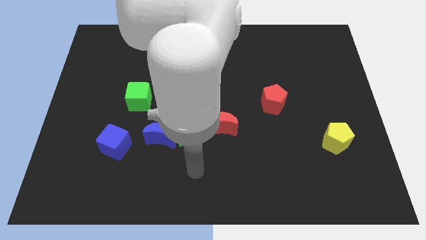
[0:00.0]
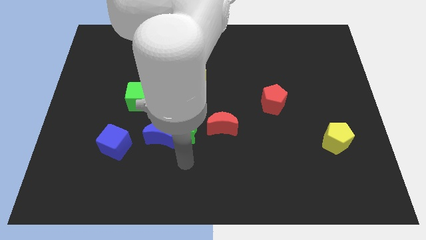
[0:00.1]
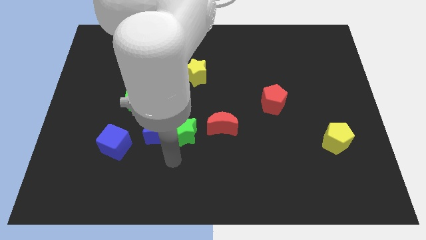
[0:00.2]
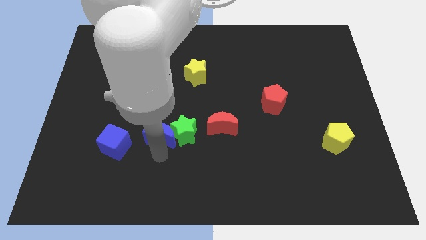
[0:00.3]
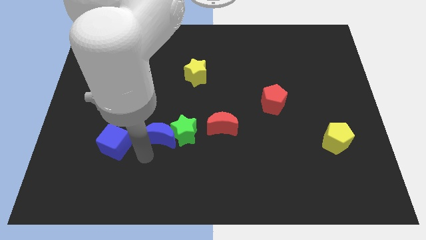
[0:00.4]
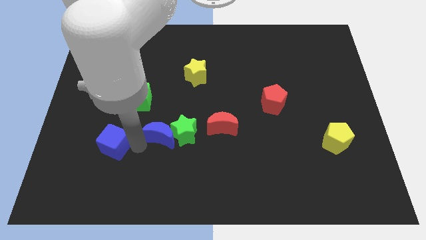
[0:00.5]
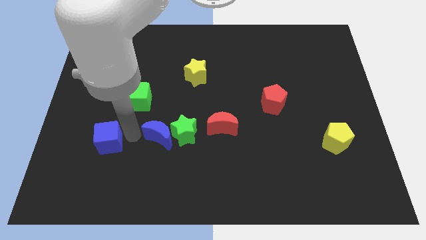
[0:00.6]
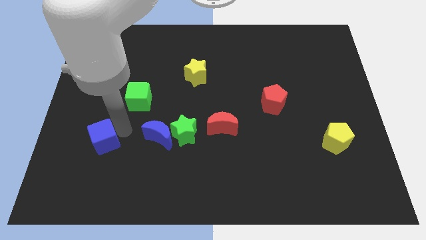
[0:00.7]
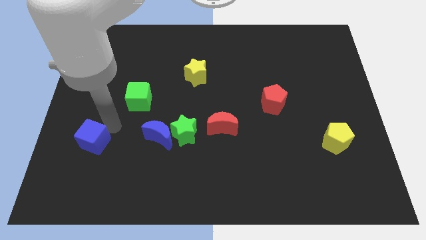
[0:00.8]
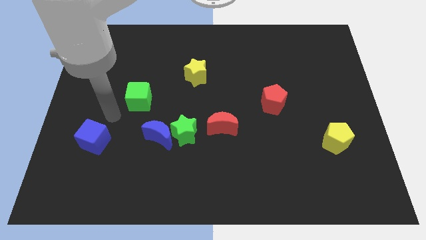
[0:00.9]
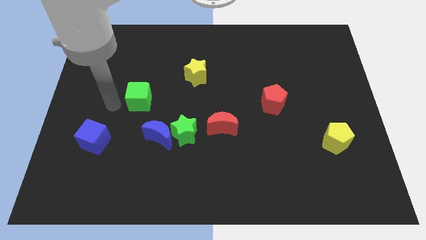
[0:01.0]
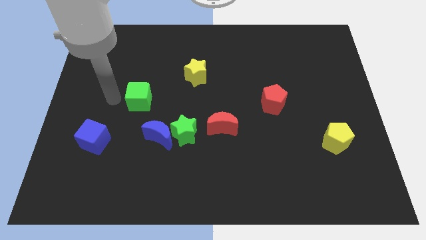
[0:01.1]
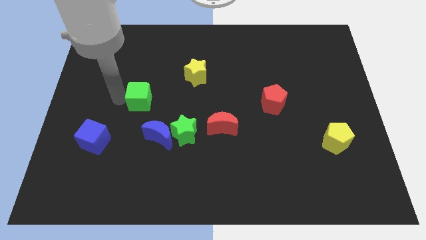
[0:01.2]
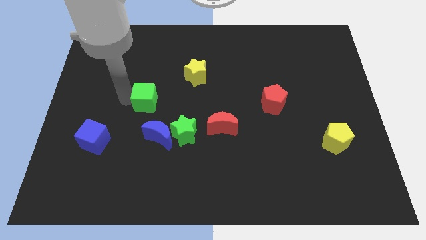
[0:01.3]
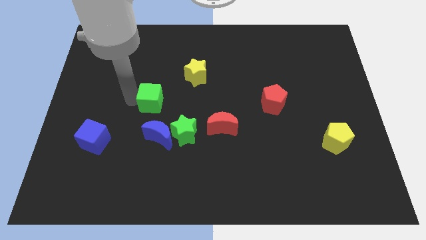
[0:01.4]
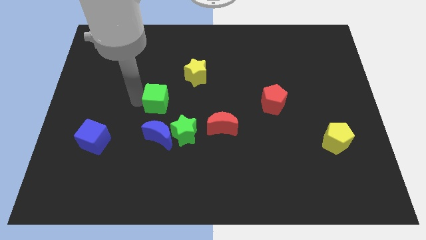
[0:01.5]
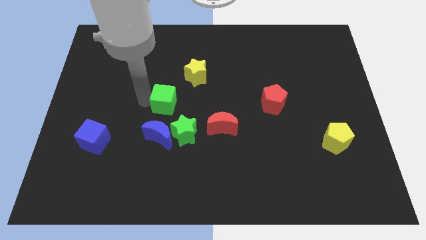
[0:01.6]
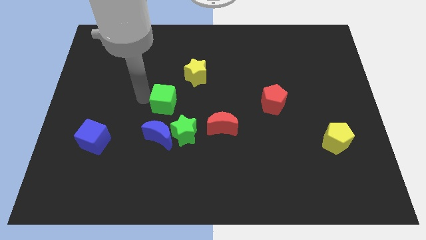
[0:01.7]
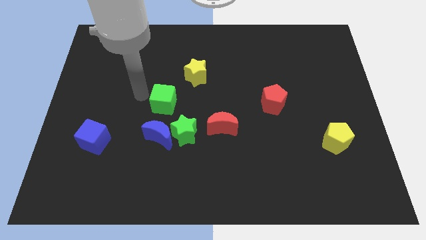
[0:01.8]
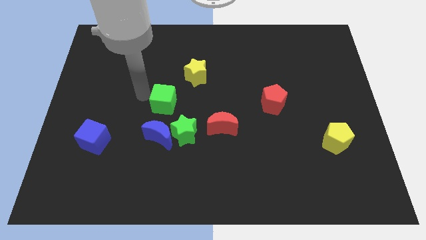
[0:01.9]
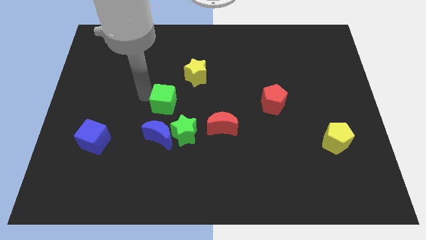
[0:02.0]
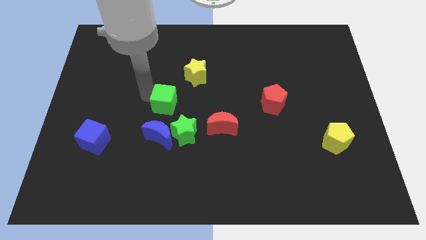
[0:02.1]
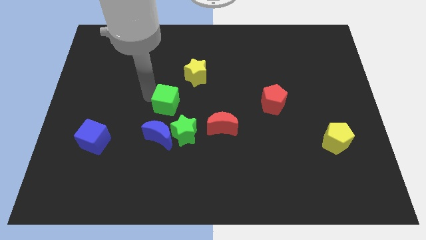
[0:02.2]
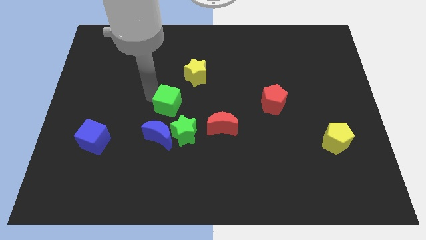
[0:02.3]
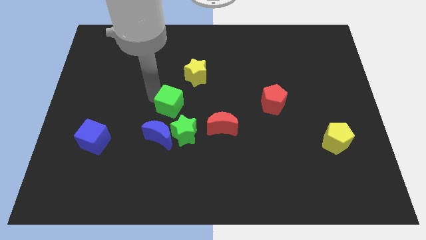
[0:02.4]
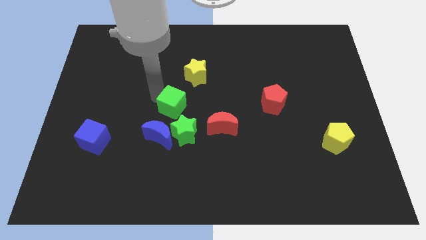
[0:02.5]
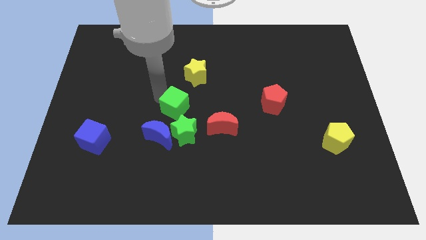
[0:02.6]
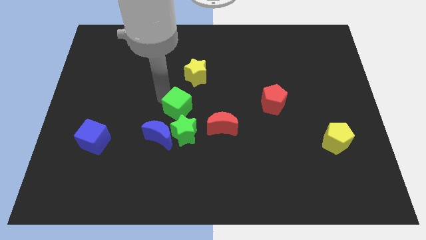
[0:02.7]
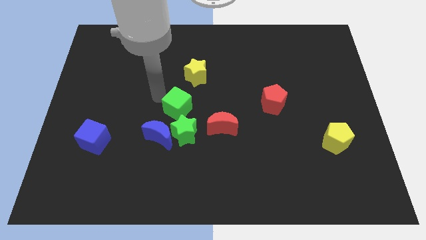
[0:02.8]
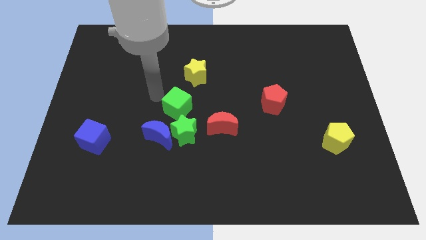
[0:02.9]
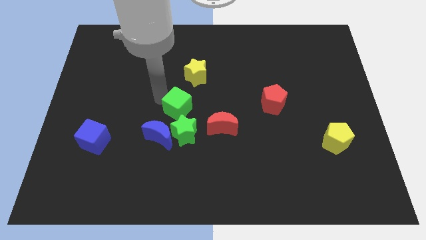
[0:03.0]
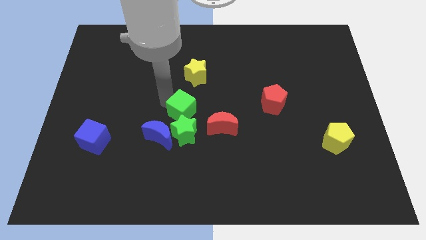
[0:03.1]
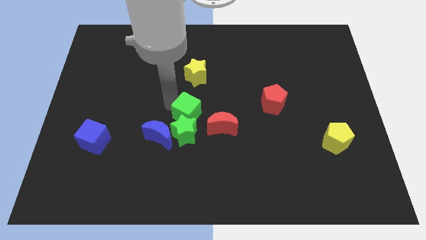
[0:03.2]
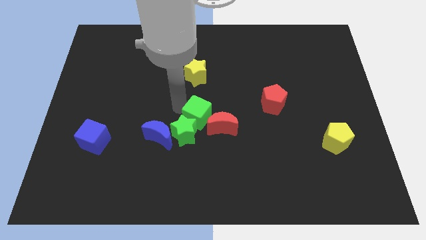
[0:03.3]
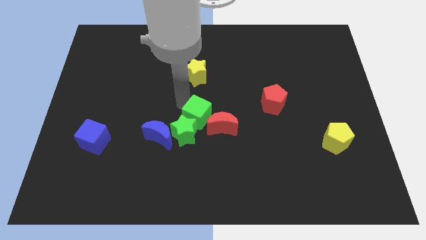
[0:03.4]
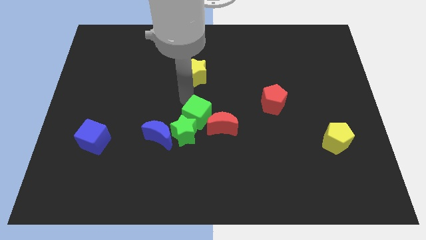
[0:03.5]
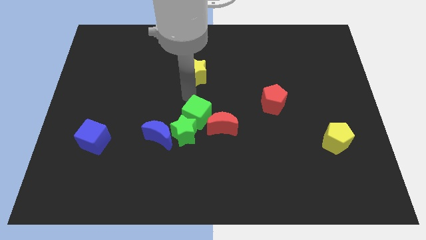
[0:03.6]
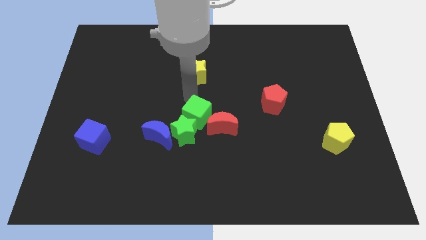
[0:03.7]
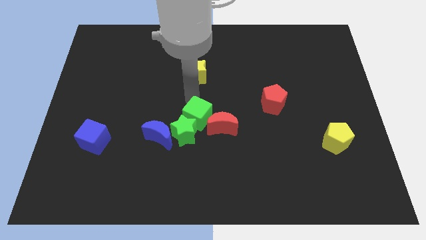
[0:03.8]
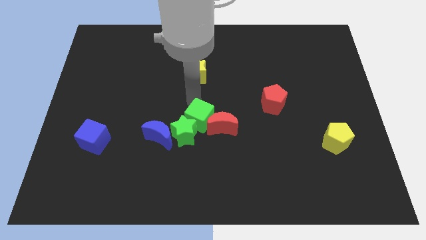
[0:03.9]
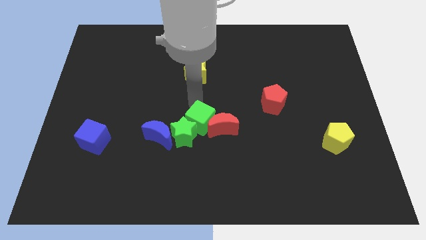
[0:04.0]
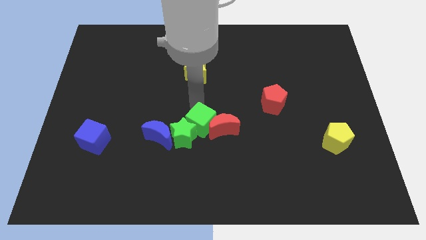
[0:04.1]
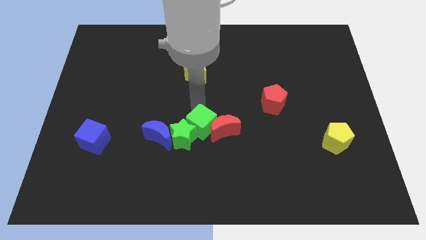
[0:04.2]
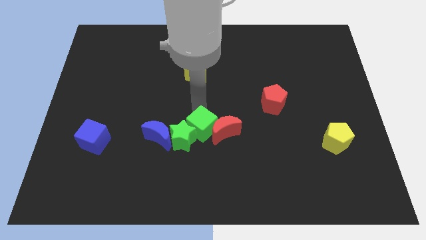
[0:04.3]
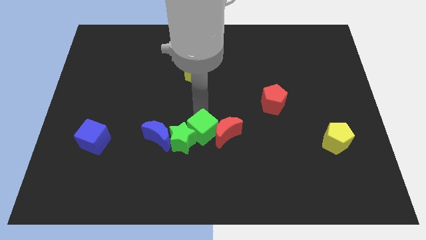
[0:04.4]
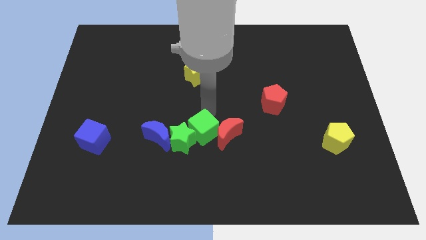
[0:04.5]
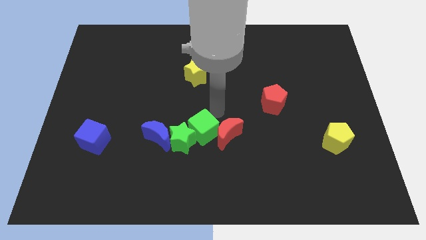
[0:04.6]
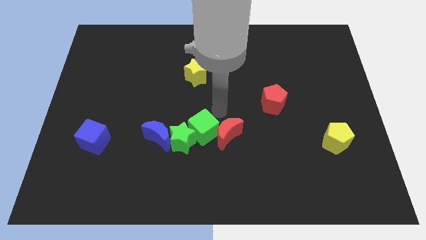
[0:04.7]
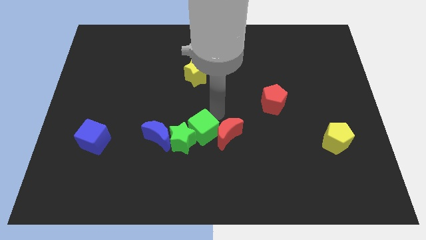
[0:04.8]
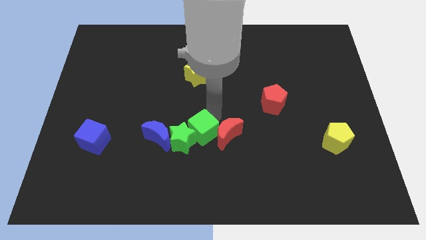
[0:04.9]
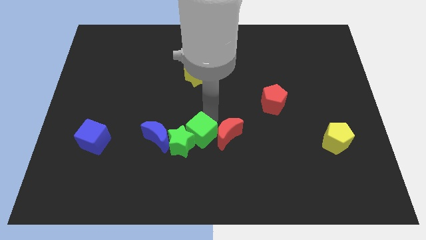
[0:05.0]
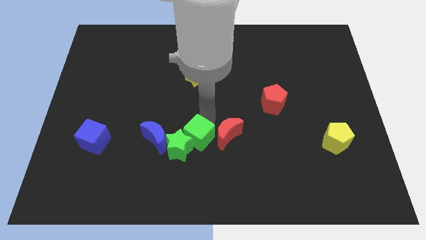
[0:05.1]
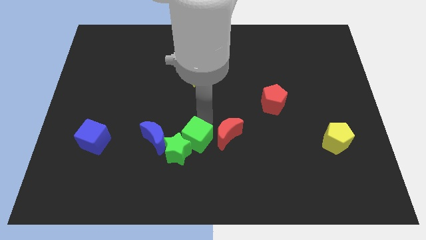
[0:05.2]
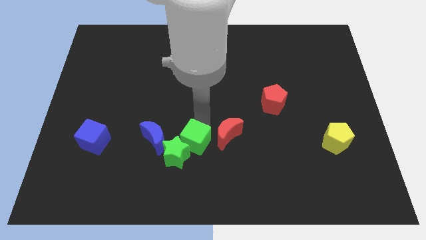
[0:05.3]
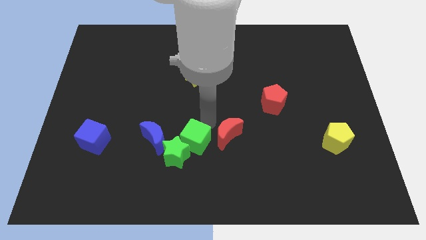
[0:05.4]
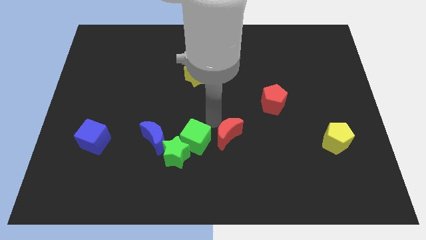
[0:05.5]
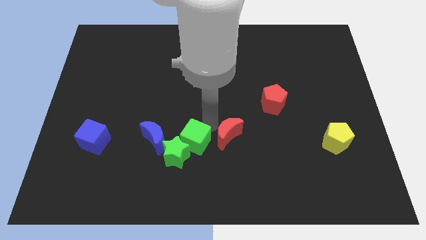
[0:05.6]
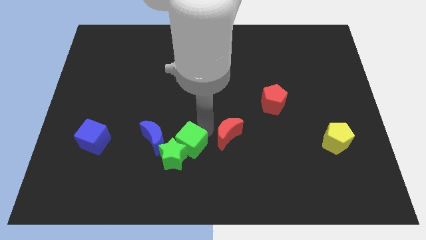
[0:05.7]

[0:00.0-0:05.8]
put the green cube to the bottom right of the blue moon

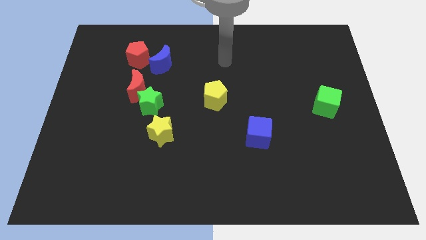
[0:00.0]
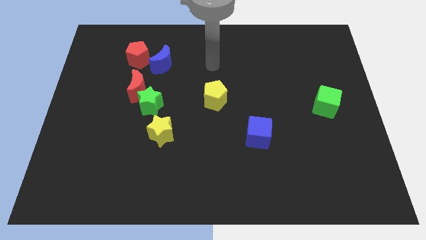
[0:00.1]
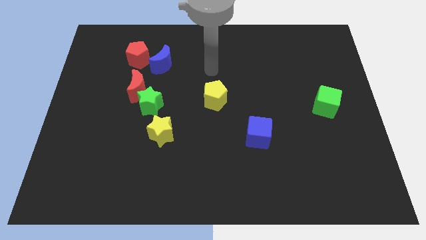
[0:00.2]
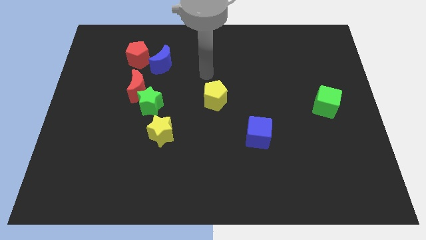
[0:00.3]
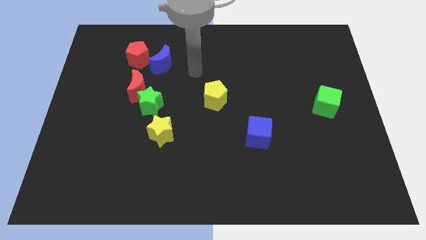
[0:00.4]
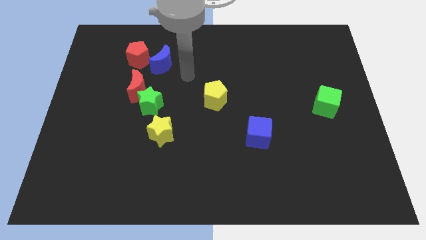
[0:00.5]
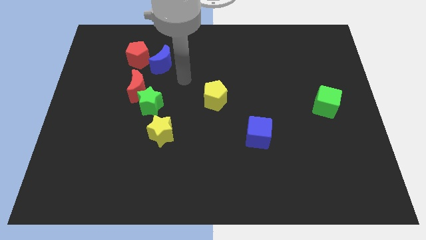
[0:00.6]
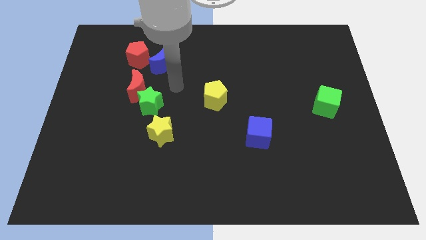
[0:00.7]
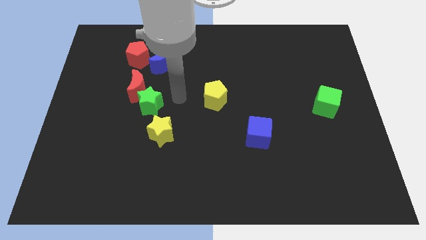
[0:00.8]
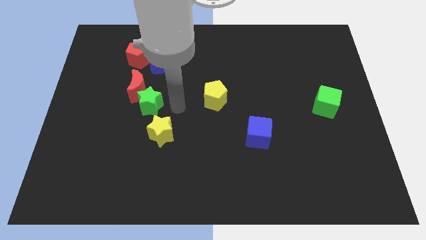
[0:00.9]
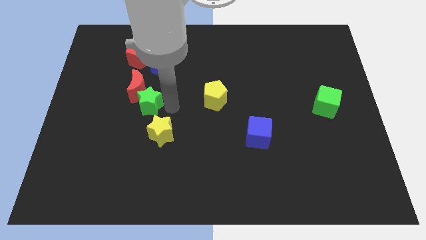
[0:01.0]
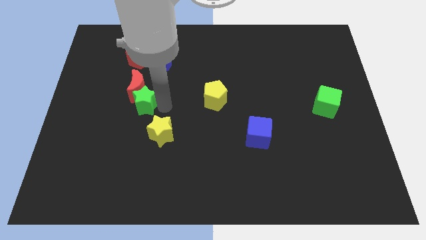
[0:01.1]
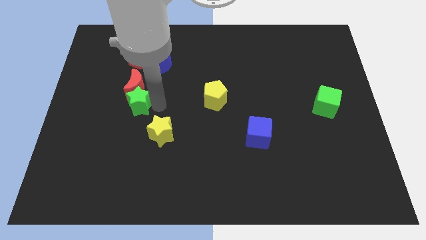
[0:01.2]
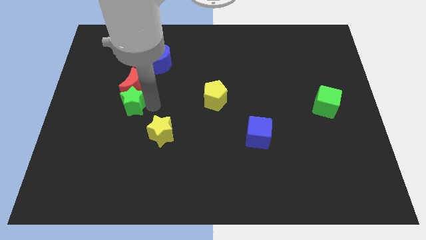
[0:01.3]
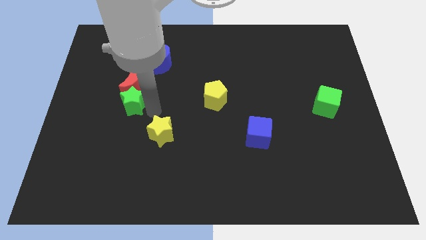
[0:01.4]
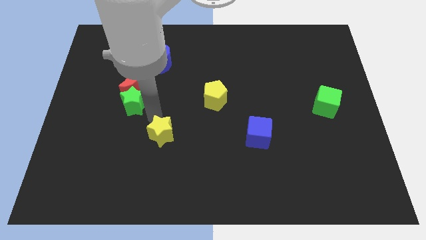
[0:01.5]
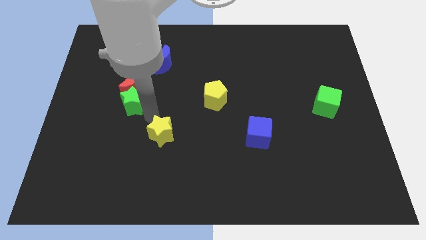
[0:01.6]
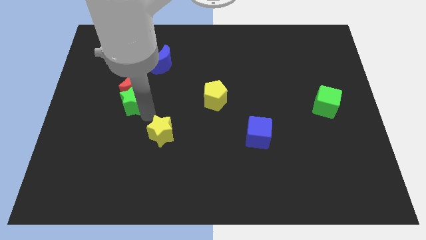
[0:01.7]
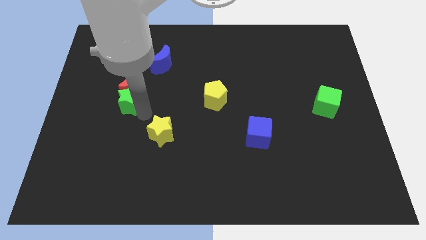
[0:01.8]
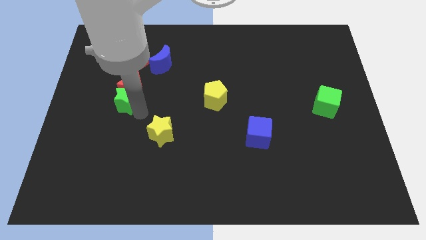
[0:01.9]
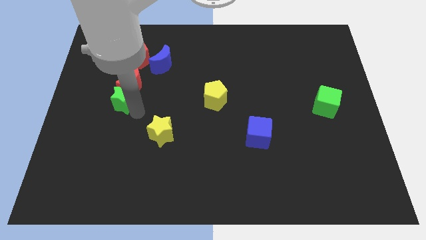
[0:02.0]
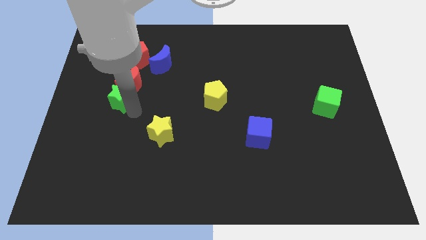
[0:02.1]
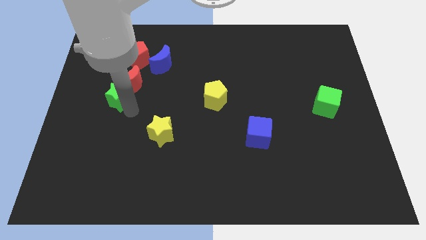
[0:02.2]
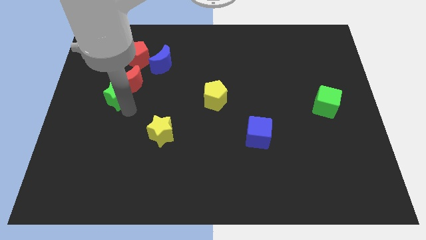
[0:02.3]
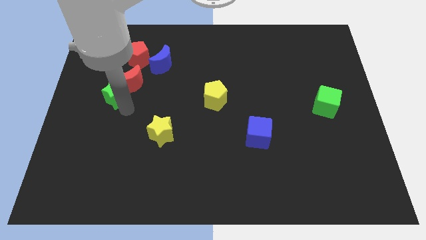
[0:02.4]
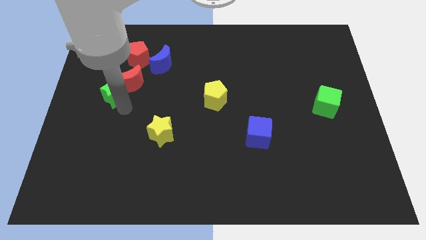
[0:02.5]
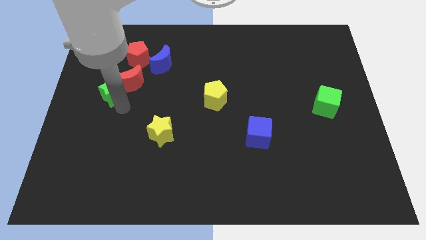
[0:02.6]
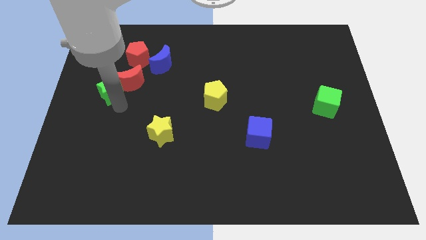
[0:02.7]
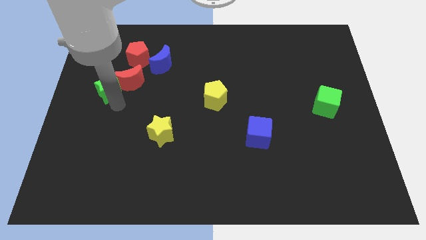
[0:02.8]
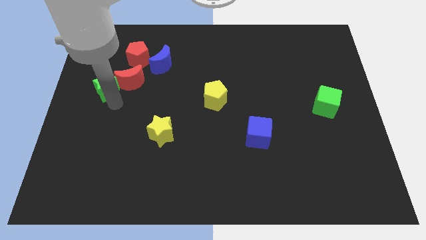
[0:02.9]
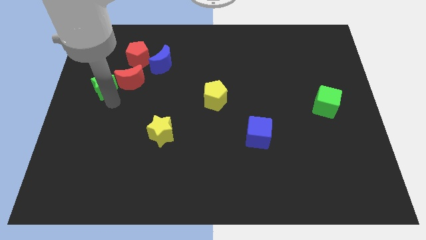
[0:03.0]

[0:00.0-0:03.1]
put the green star diagonally down and to the left of the red pentagon
